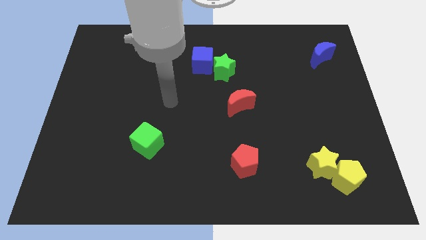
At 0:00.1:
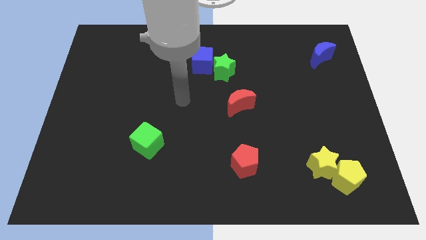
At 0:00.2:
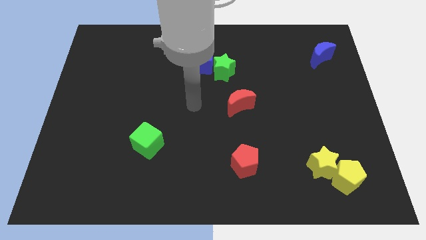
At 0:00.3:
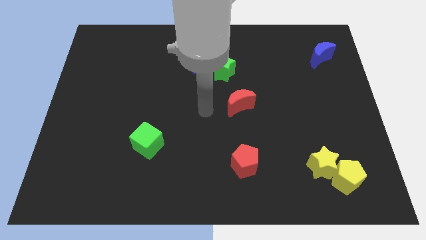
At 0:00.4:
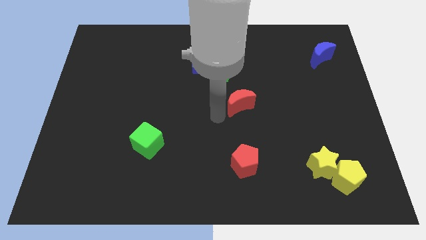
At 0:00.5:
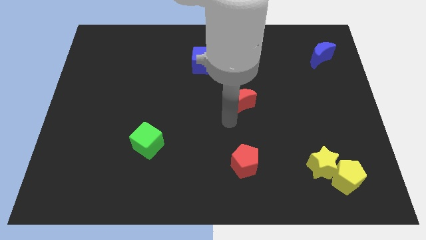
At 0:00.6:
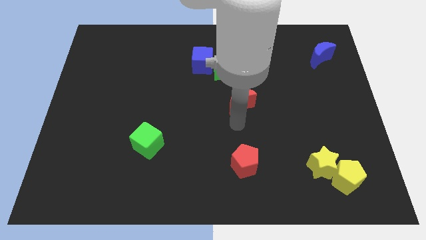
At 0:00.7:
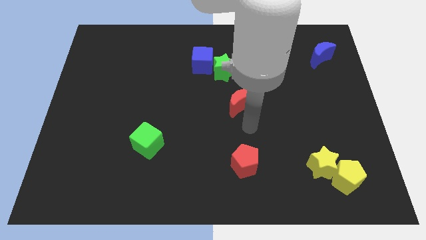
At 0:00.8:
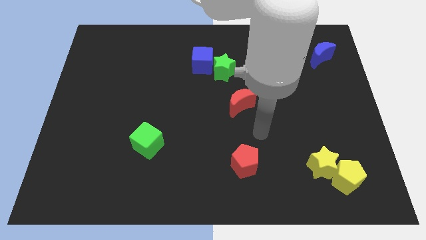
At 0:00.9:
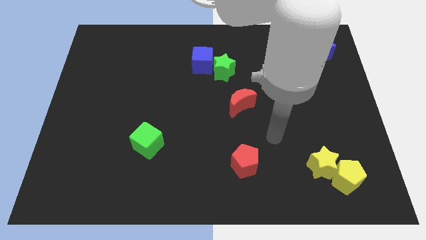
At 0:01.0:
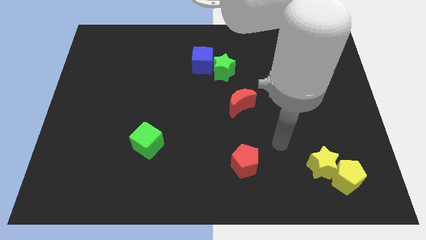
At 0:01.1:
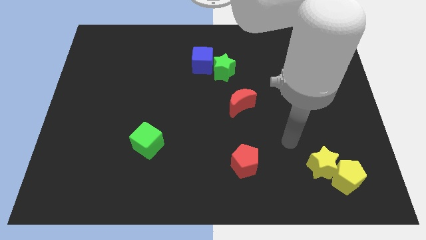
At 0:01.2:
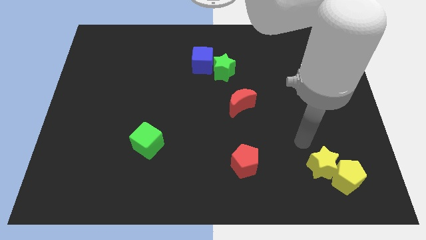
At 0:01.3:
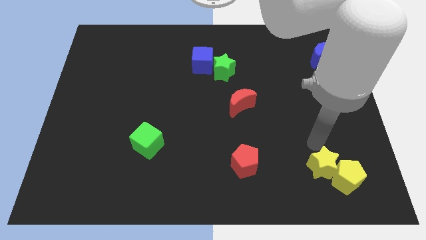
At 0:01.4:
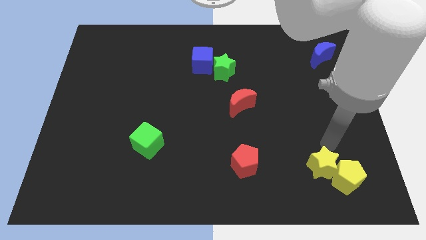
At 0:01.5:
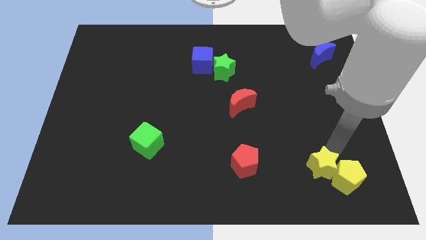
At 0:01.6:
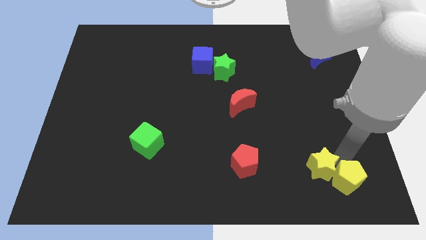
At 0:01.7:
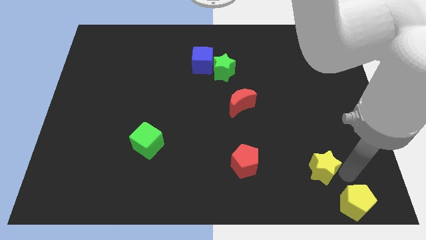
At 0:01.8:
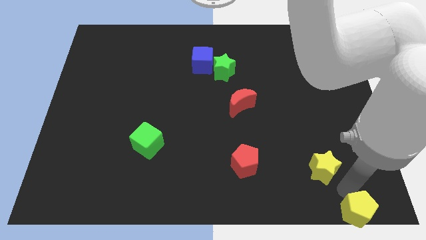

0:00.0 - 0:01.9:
separate the yellow star from the yellow pentagon

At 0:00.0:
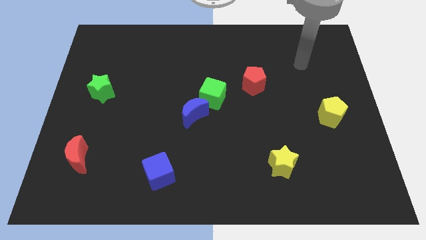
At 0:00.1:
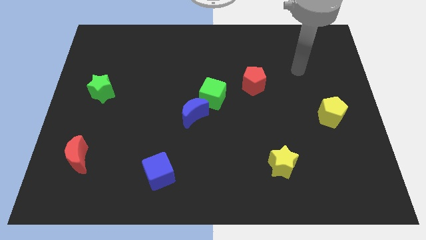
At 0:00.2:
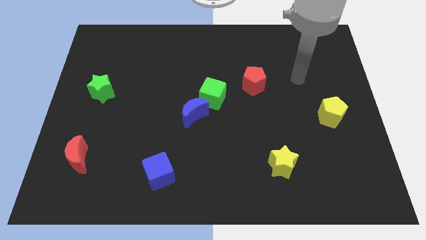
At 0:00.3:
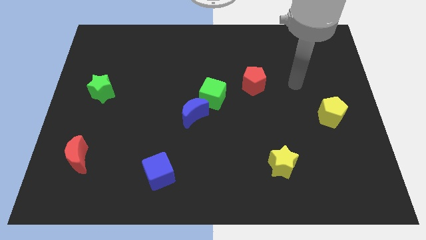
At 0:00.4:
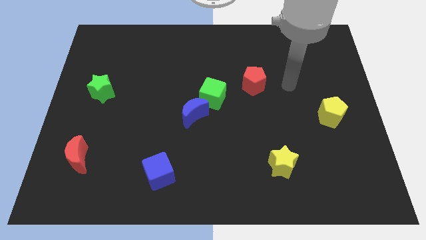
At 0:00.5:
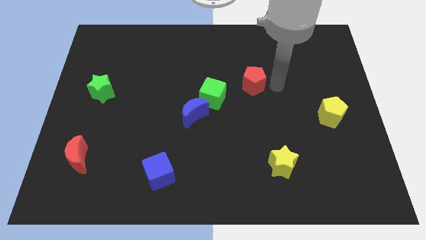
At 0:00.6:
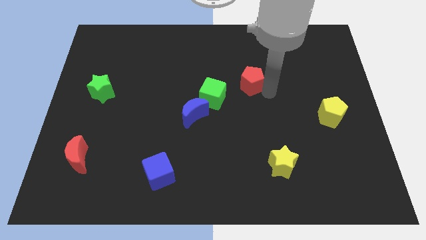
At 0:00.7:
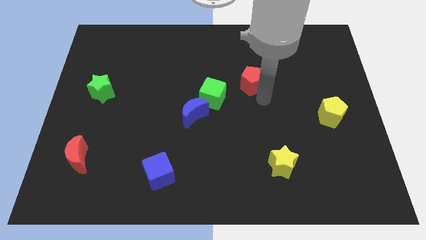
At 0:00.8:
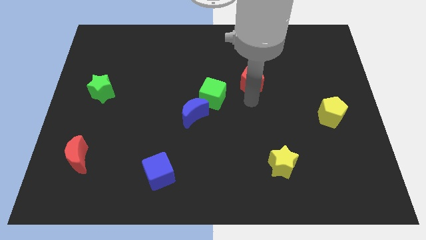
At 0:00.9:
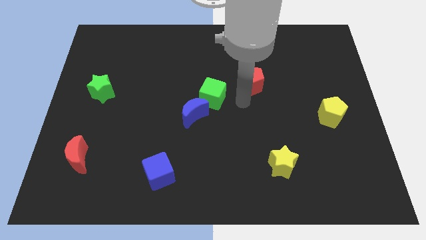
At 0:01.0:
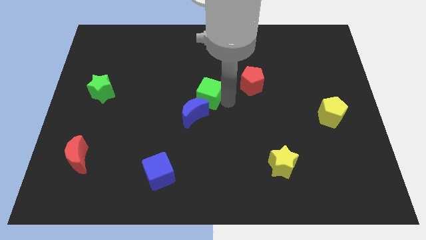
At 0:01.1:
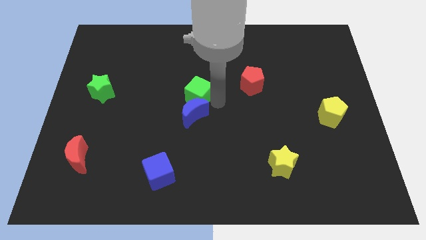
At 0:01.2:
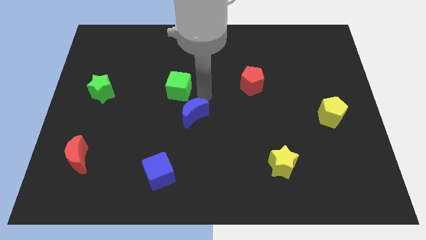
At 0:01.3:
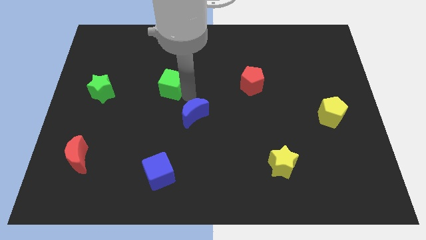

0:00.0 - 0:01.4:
separate the blue moon from the green cube

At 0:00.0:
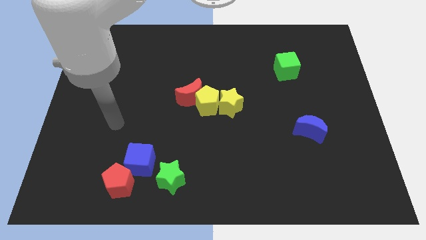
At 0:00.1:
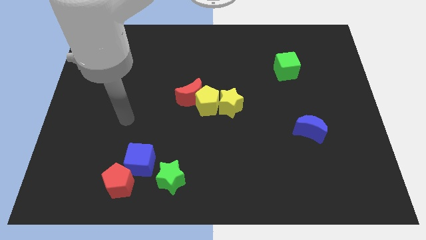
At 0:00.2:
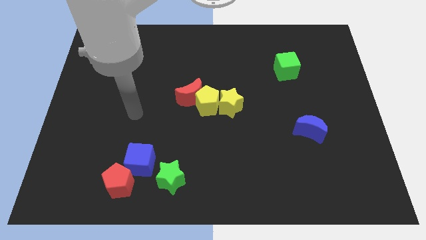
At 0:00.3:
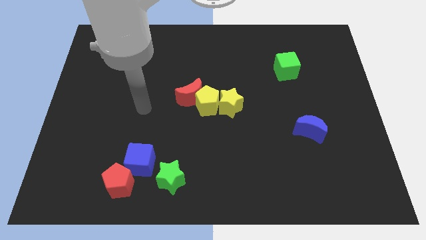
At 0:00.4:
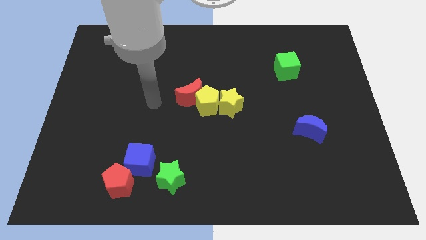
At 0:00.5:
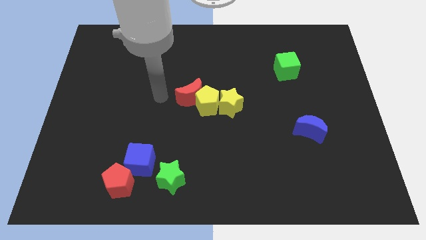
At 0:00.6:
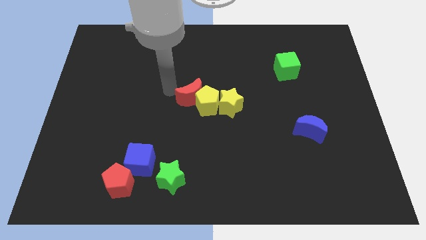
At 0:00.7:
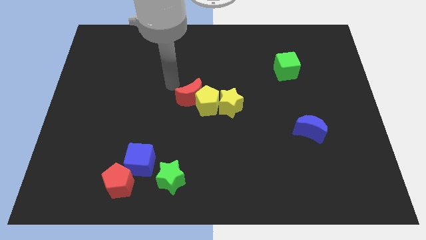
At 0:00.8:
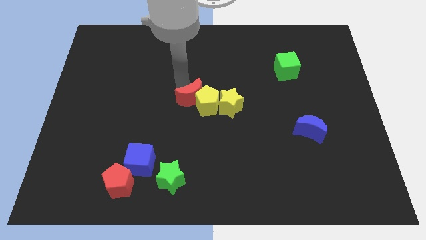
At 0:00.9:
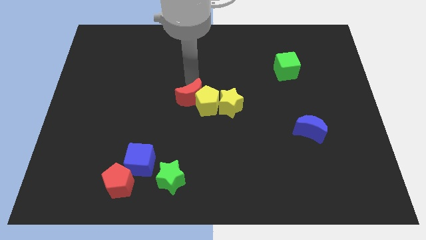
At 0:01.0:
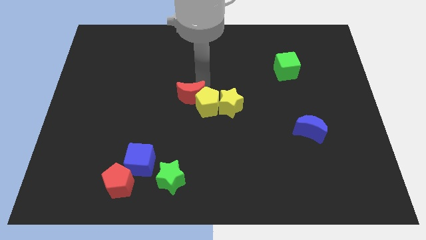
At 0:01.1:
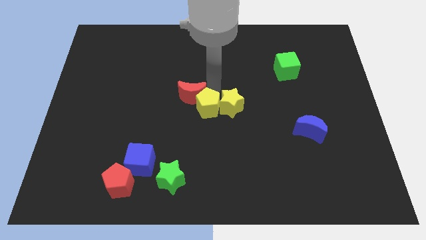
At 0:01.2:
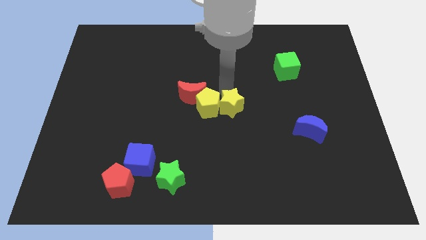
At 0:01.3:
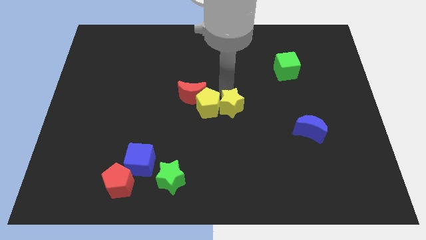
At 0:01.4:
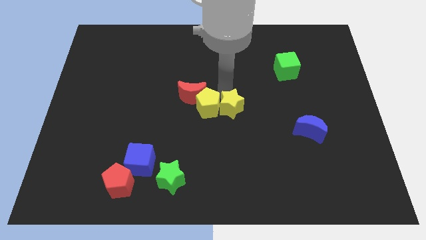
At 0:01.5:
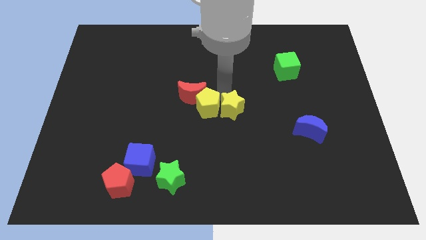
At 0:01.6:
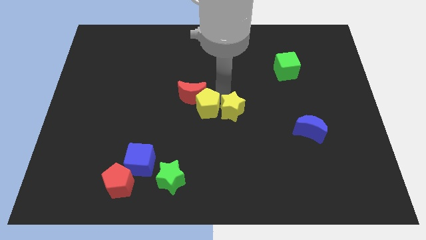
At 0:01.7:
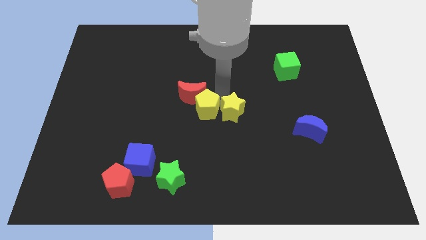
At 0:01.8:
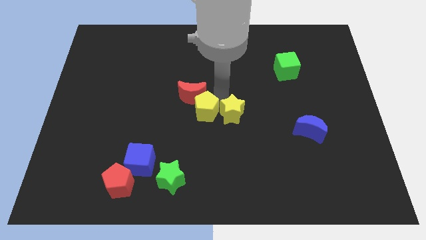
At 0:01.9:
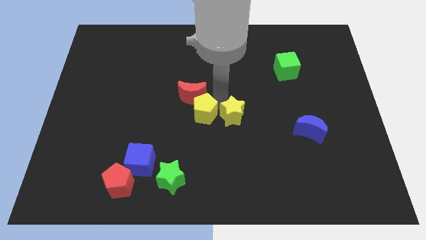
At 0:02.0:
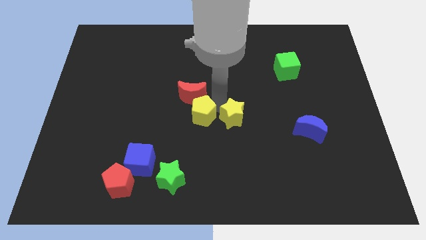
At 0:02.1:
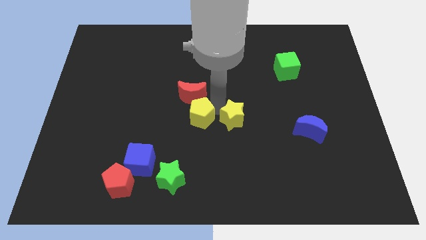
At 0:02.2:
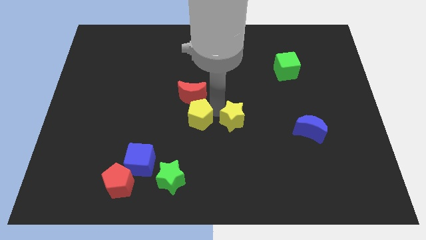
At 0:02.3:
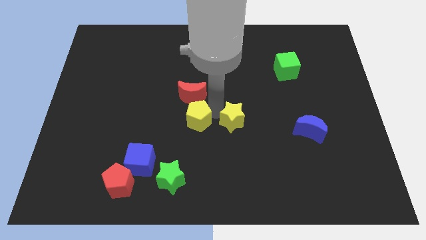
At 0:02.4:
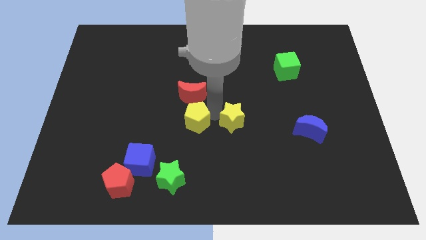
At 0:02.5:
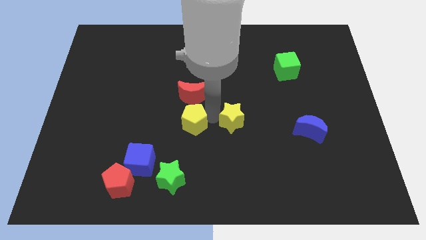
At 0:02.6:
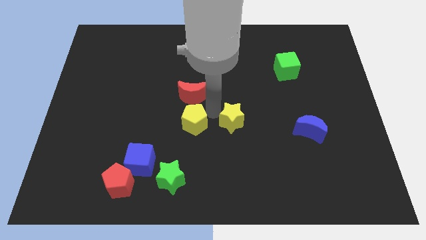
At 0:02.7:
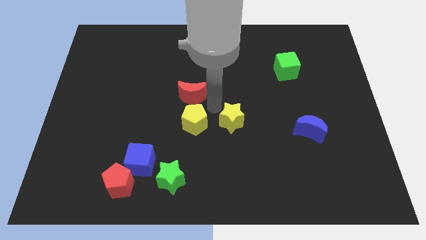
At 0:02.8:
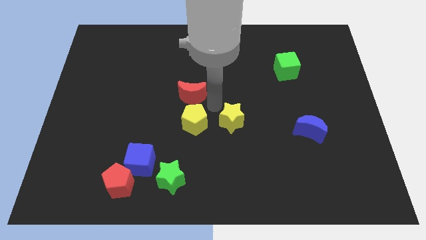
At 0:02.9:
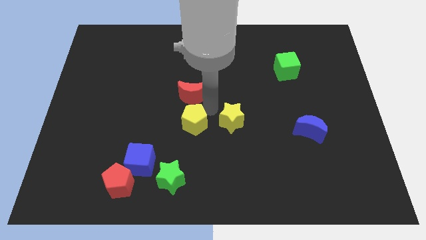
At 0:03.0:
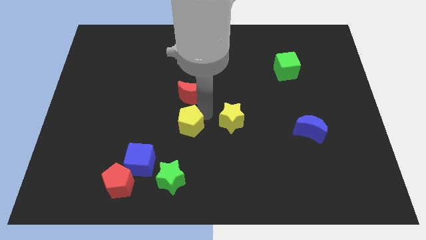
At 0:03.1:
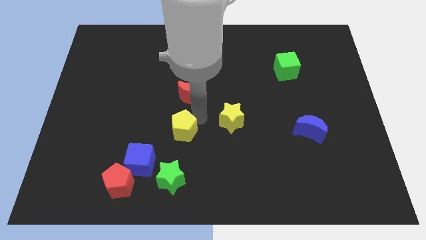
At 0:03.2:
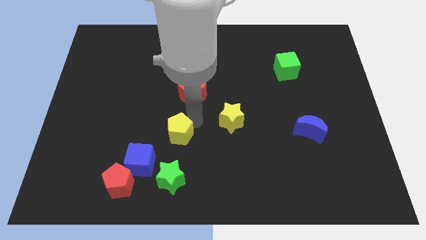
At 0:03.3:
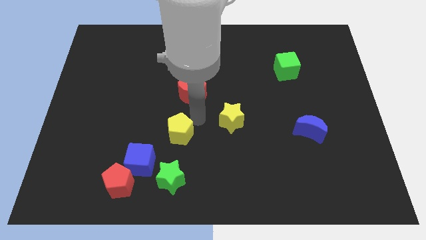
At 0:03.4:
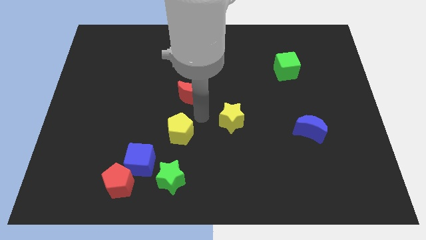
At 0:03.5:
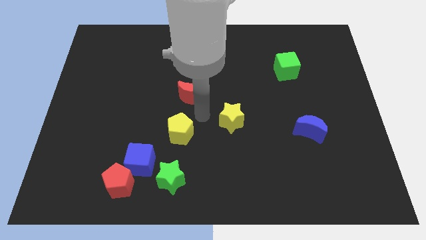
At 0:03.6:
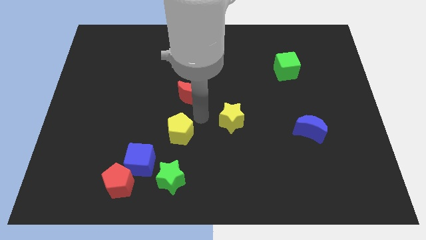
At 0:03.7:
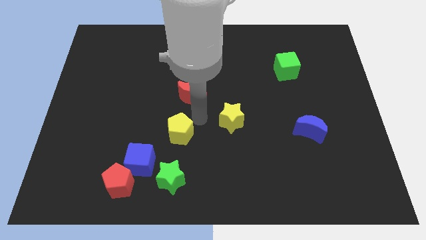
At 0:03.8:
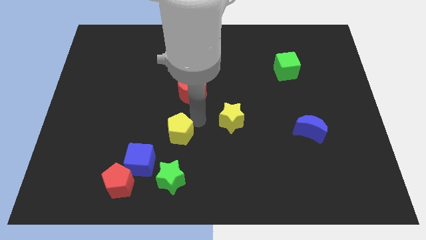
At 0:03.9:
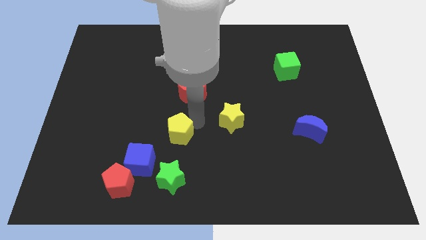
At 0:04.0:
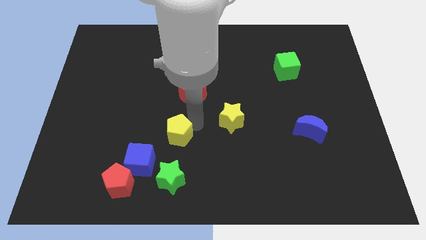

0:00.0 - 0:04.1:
move the yellow pentagon away from the red moon and yellow star

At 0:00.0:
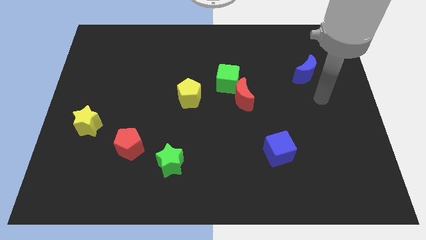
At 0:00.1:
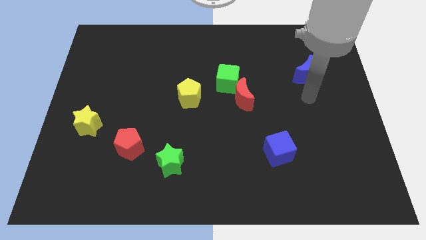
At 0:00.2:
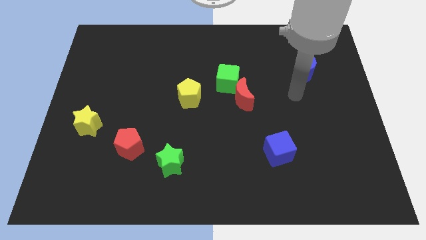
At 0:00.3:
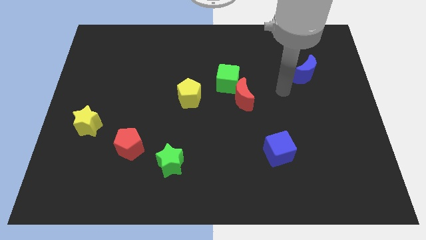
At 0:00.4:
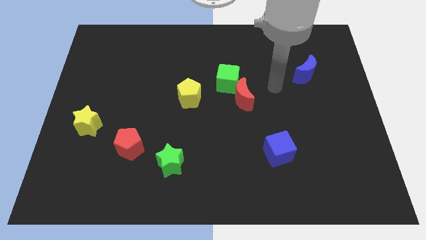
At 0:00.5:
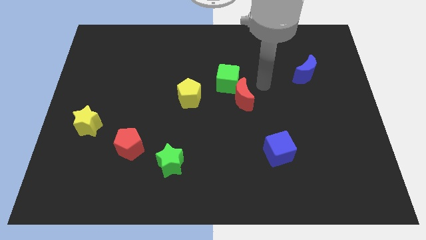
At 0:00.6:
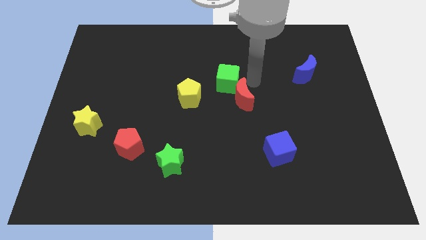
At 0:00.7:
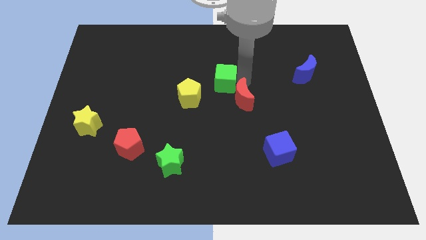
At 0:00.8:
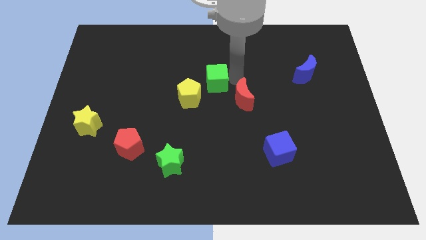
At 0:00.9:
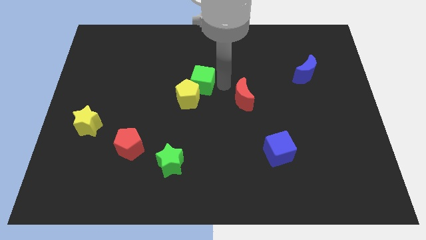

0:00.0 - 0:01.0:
separate the red moon from the green cube

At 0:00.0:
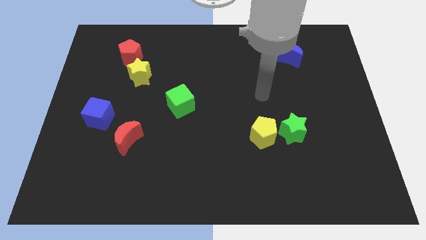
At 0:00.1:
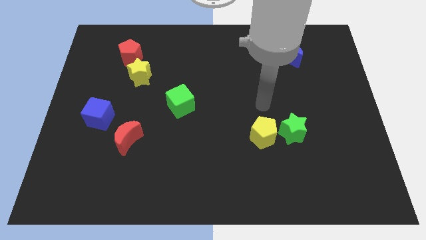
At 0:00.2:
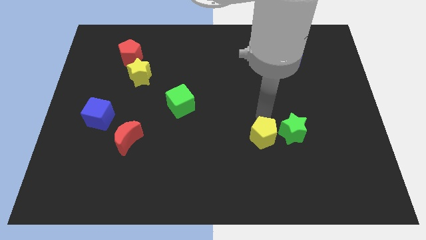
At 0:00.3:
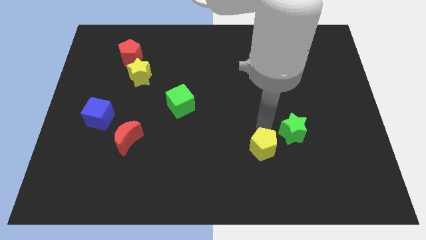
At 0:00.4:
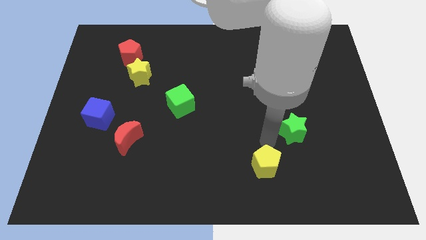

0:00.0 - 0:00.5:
separate the green star from the yellow pentagon

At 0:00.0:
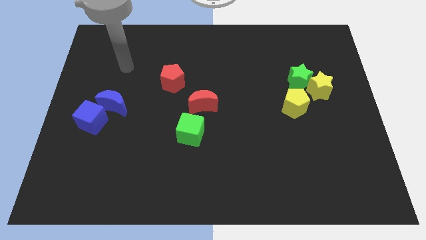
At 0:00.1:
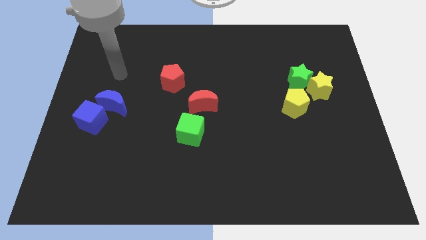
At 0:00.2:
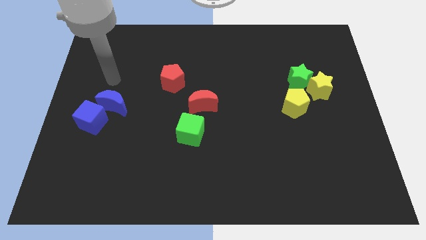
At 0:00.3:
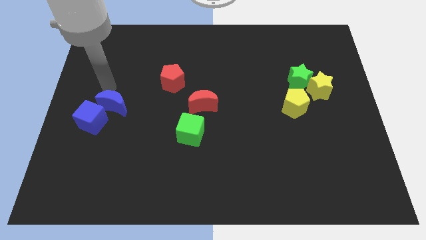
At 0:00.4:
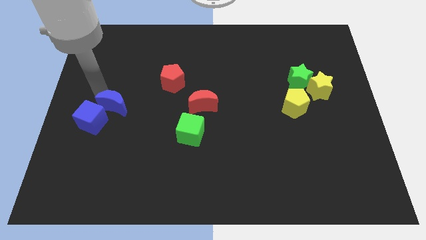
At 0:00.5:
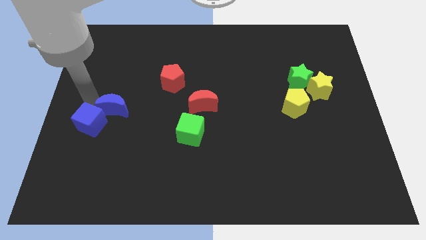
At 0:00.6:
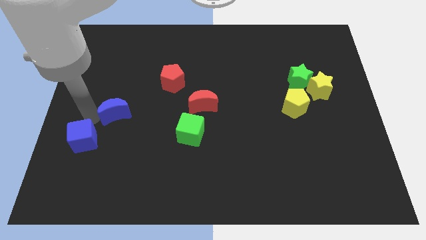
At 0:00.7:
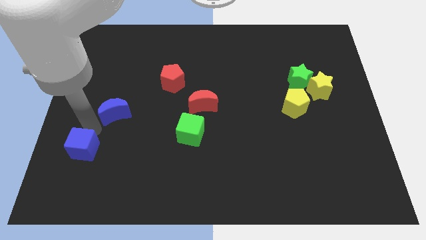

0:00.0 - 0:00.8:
pull the blue moon apart from the blue cube
